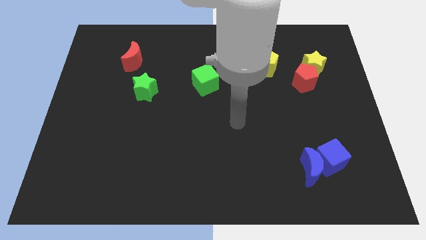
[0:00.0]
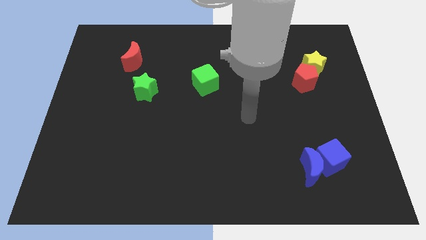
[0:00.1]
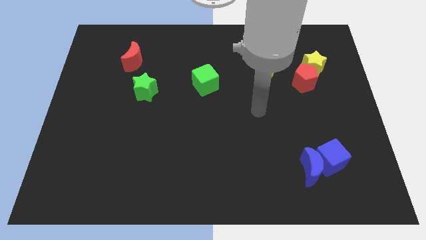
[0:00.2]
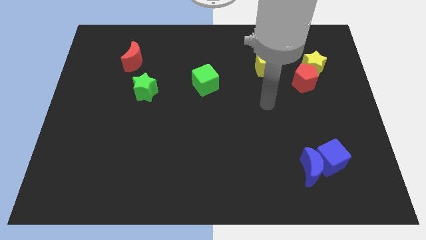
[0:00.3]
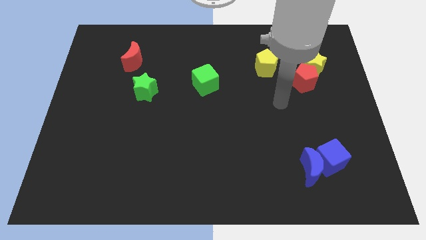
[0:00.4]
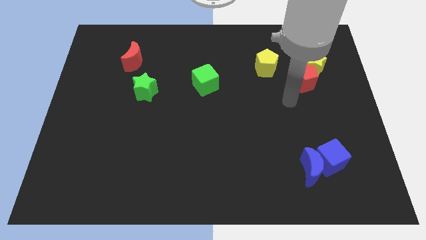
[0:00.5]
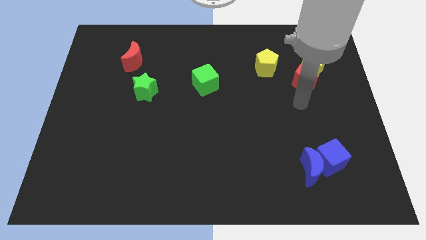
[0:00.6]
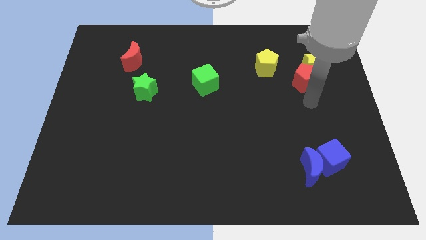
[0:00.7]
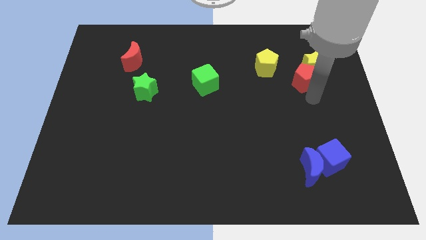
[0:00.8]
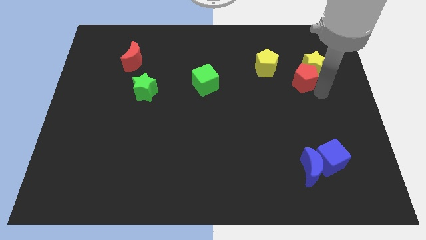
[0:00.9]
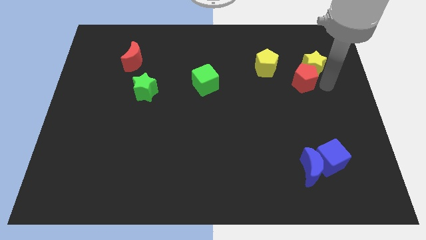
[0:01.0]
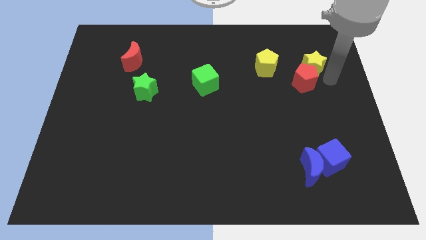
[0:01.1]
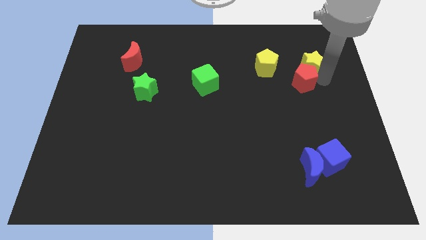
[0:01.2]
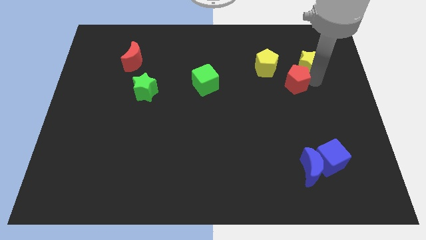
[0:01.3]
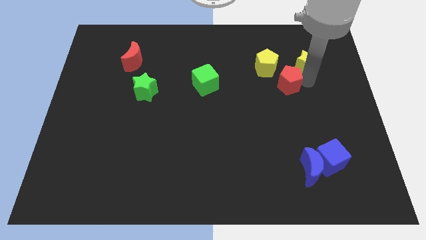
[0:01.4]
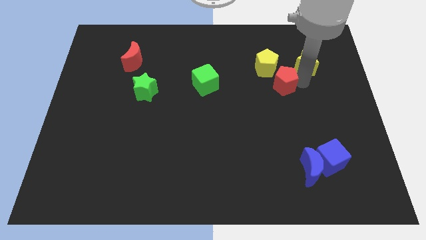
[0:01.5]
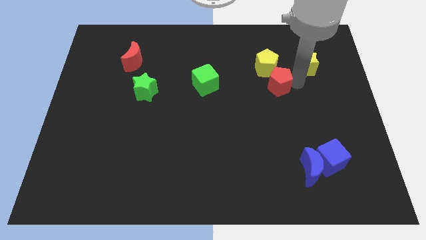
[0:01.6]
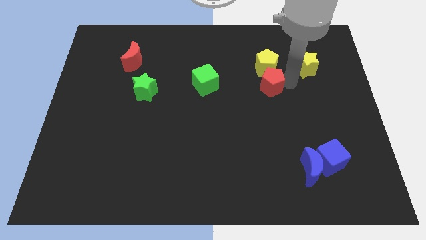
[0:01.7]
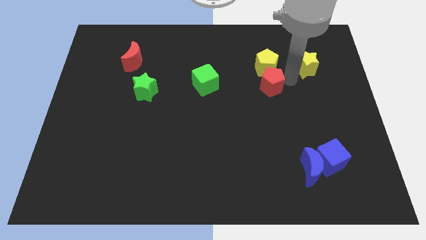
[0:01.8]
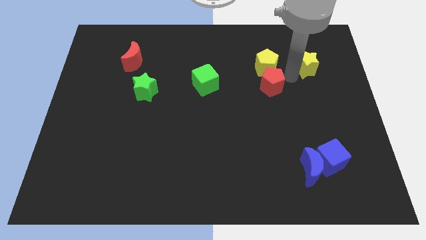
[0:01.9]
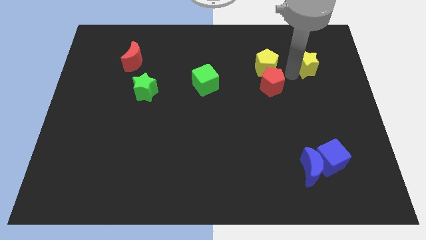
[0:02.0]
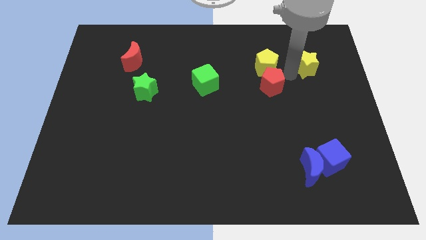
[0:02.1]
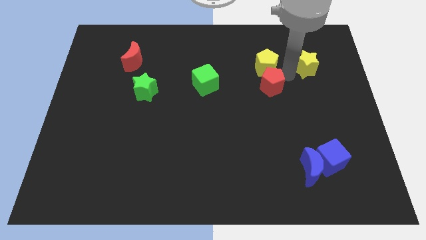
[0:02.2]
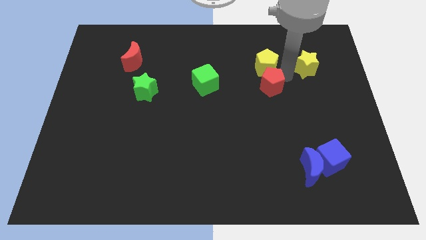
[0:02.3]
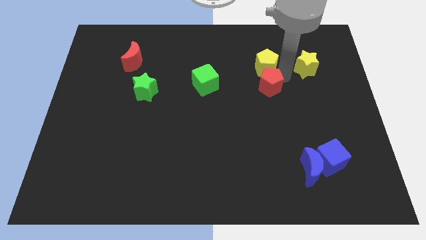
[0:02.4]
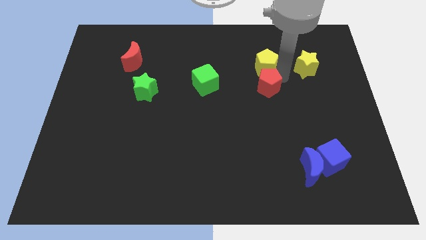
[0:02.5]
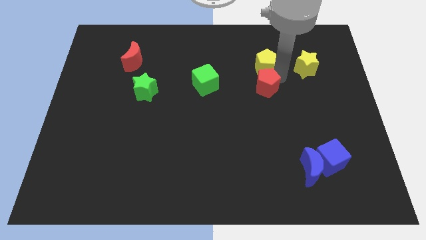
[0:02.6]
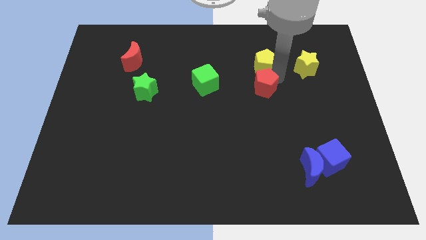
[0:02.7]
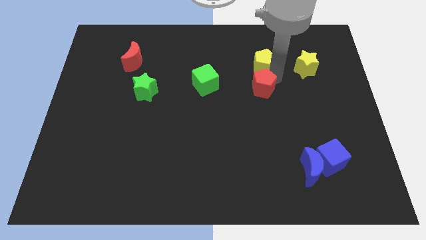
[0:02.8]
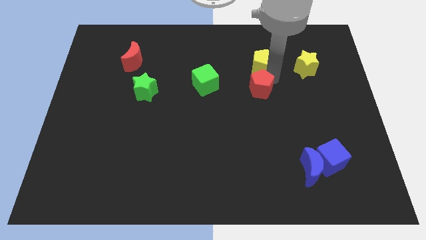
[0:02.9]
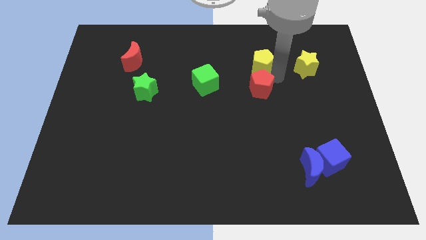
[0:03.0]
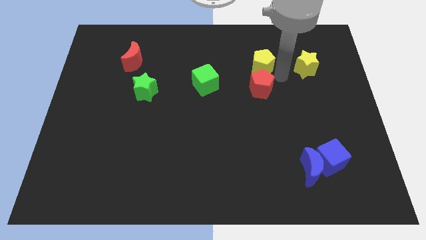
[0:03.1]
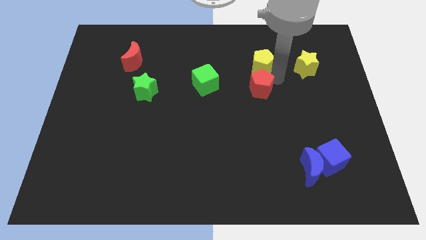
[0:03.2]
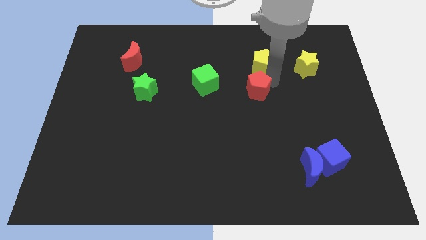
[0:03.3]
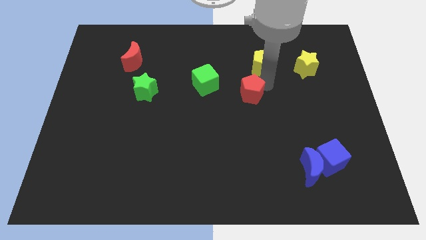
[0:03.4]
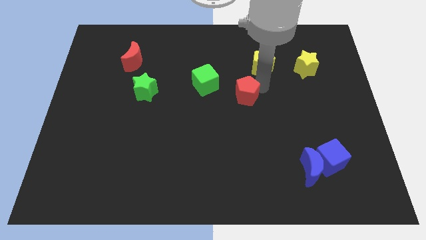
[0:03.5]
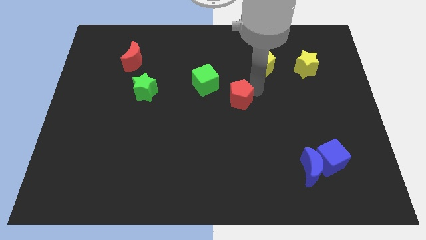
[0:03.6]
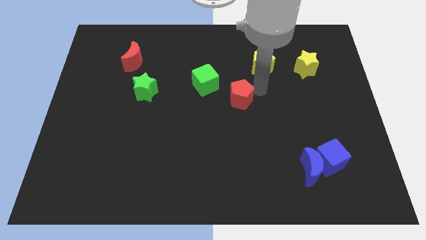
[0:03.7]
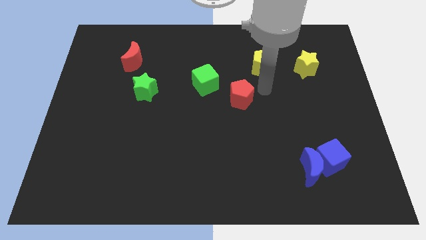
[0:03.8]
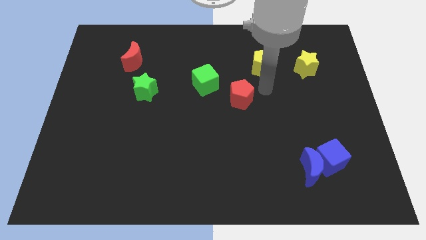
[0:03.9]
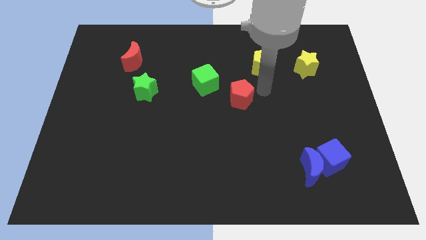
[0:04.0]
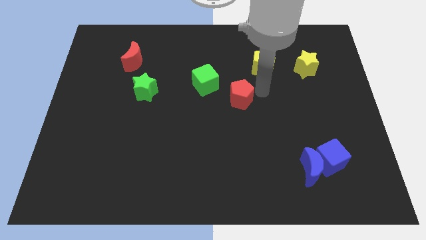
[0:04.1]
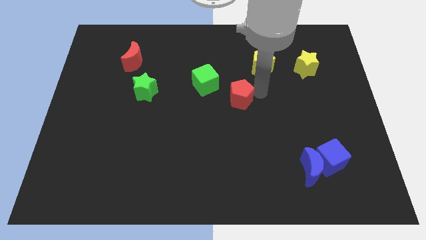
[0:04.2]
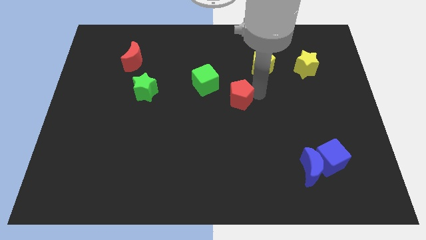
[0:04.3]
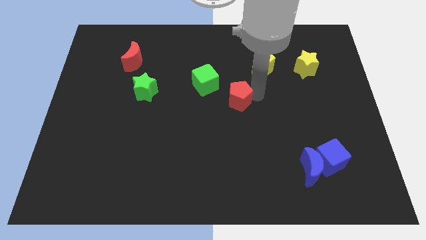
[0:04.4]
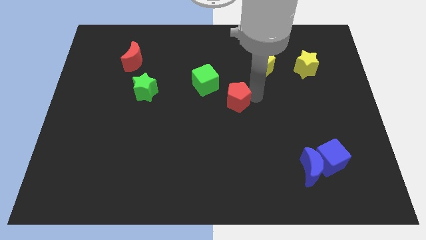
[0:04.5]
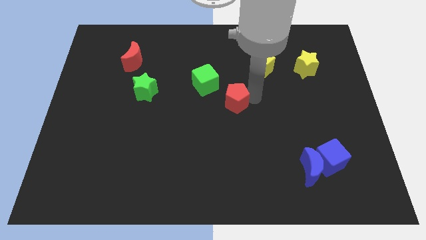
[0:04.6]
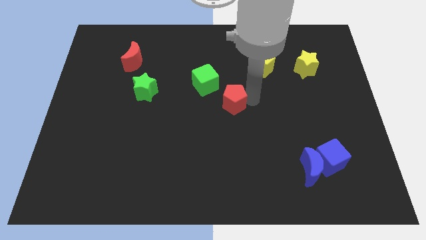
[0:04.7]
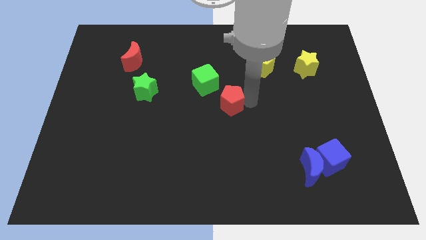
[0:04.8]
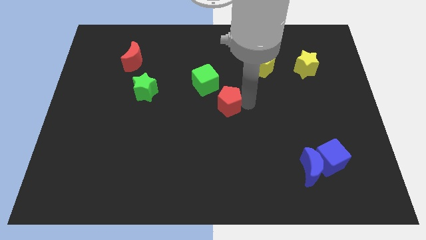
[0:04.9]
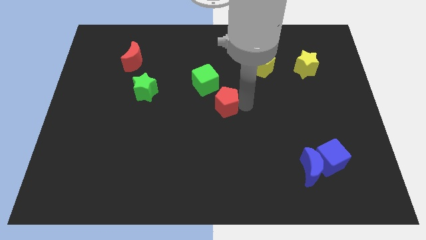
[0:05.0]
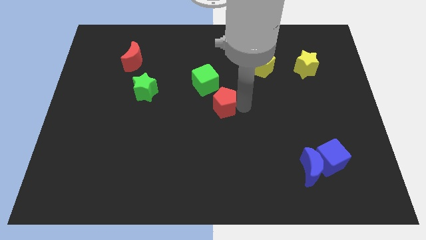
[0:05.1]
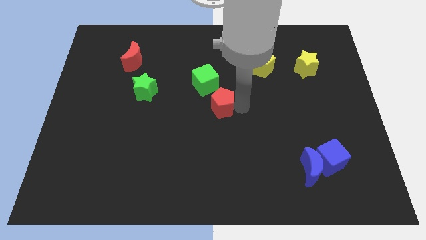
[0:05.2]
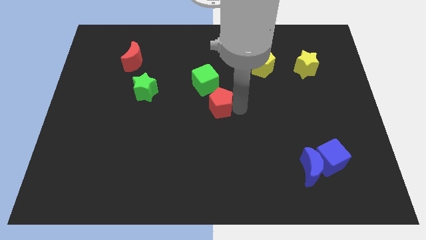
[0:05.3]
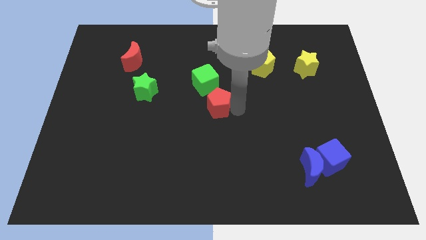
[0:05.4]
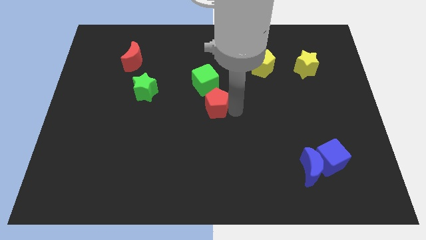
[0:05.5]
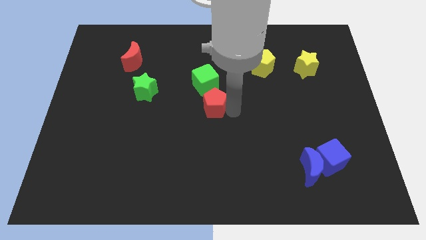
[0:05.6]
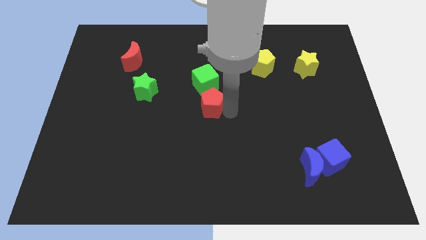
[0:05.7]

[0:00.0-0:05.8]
move the red pentagon to the left
